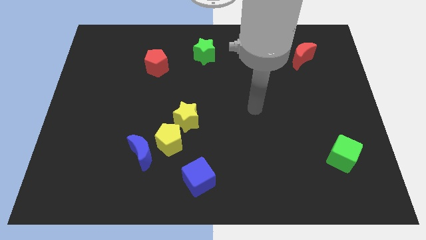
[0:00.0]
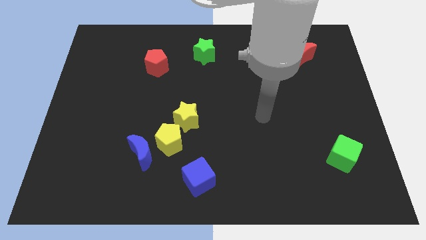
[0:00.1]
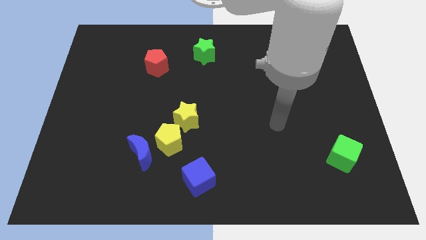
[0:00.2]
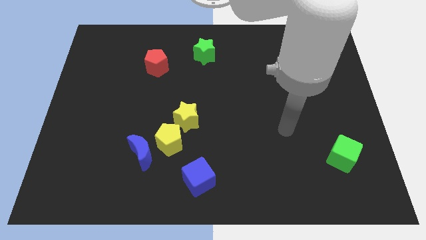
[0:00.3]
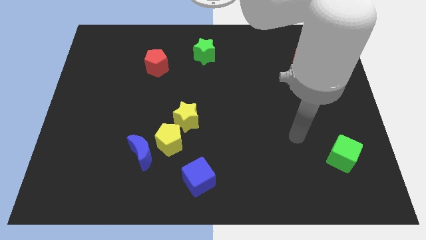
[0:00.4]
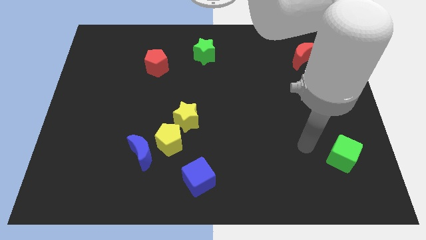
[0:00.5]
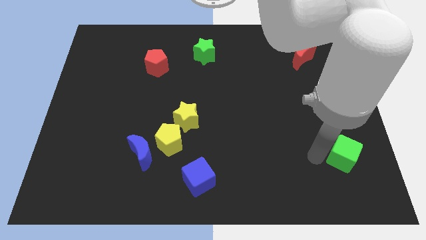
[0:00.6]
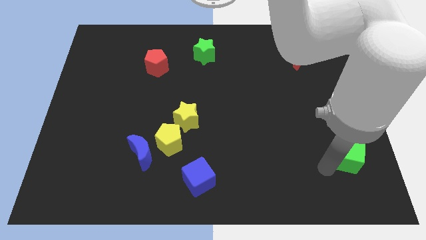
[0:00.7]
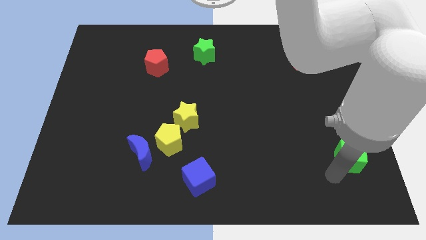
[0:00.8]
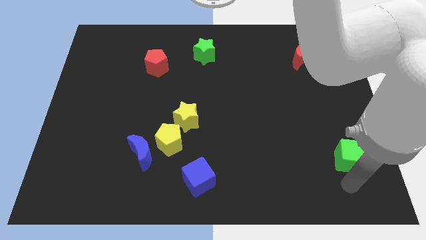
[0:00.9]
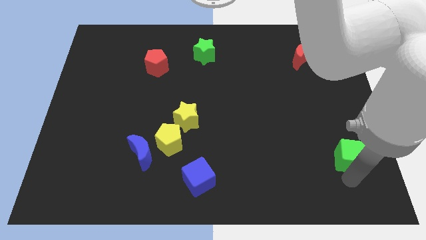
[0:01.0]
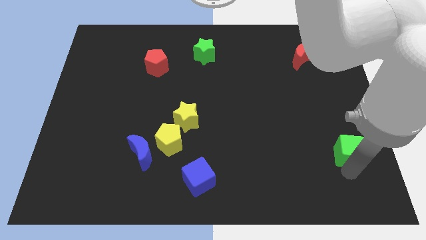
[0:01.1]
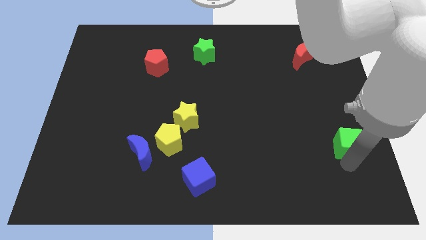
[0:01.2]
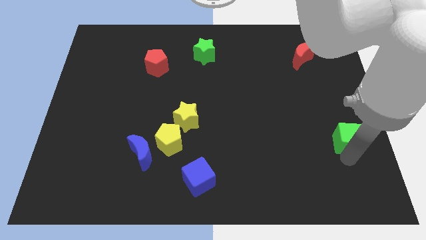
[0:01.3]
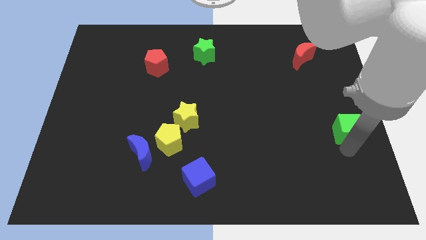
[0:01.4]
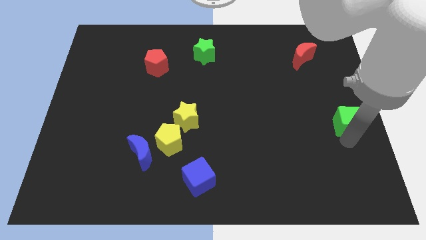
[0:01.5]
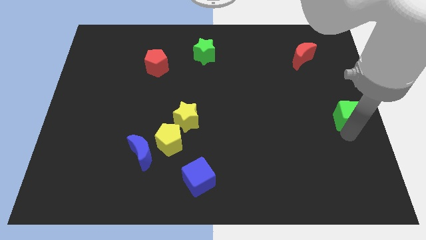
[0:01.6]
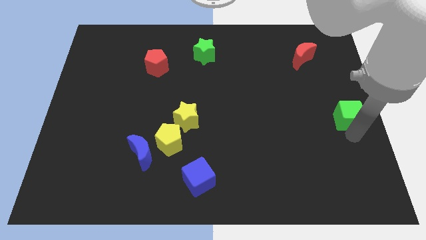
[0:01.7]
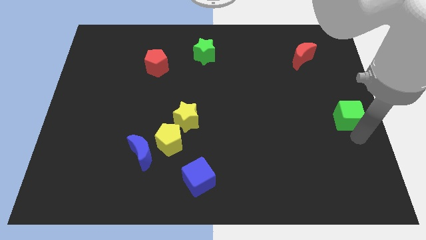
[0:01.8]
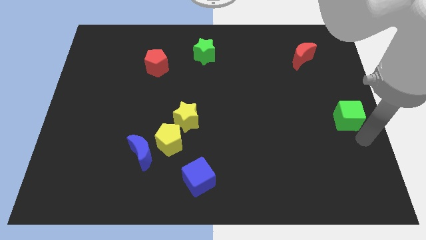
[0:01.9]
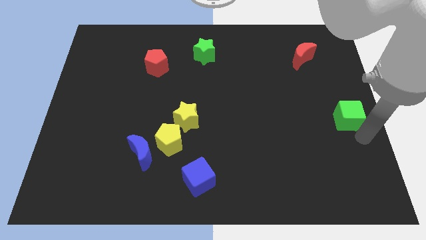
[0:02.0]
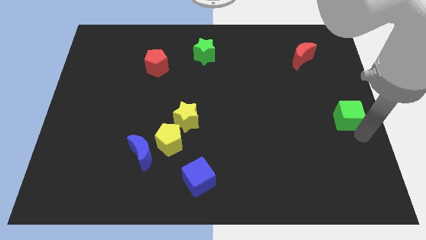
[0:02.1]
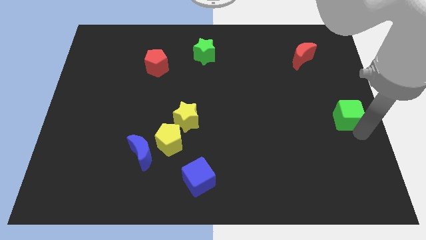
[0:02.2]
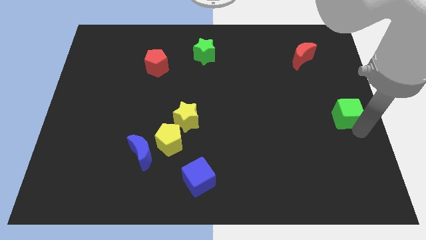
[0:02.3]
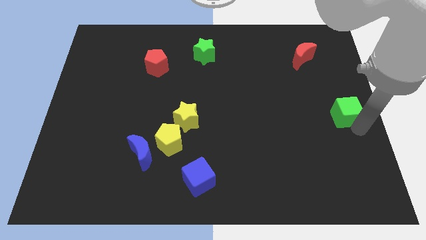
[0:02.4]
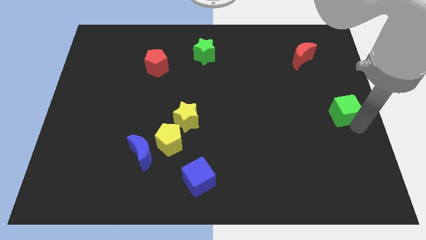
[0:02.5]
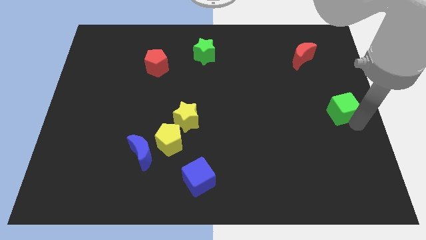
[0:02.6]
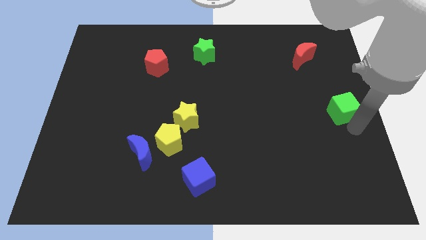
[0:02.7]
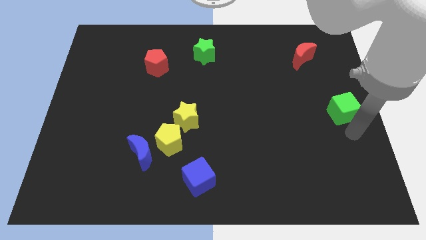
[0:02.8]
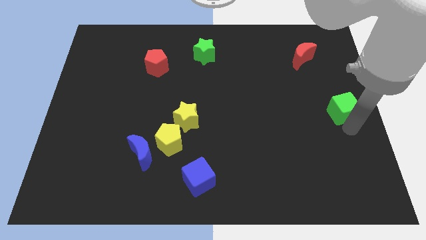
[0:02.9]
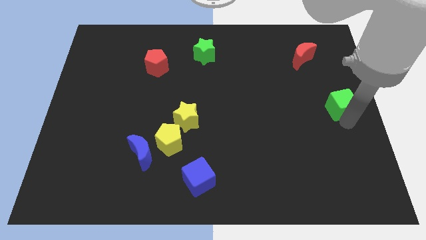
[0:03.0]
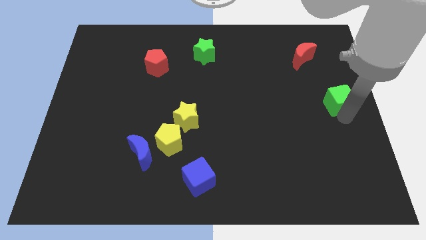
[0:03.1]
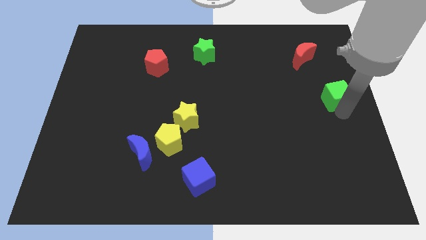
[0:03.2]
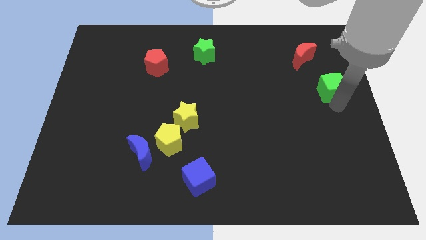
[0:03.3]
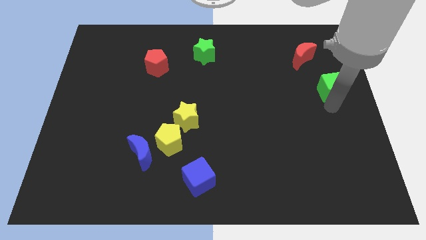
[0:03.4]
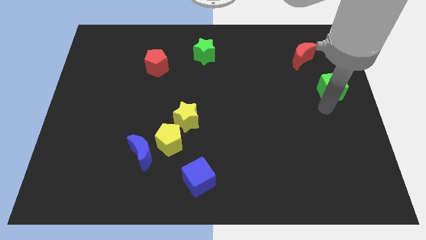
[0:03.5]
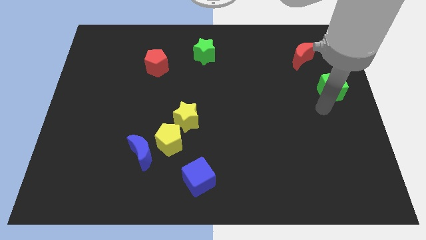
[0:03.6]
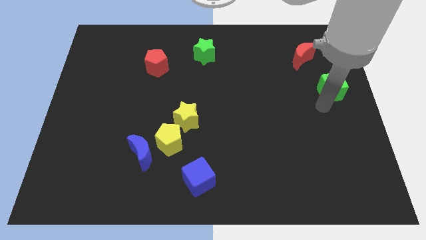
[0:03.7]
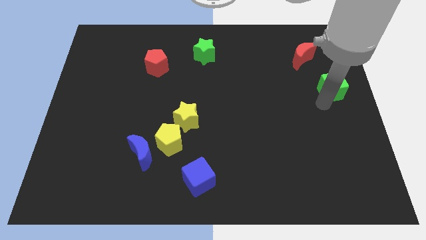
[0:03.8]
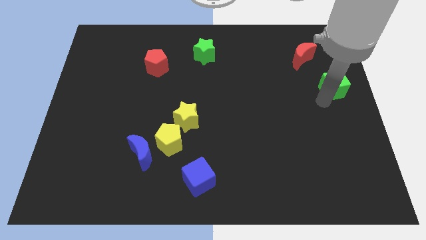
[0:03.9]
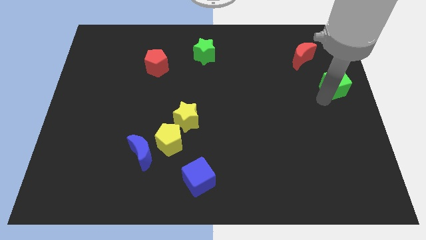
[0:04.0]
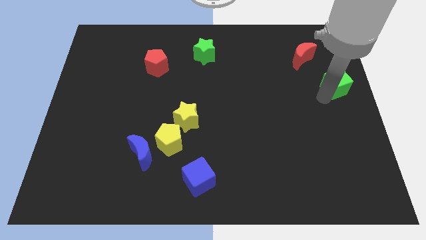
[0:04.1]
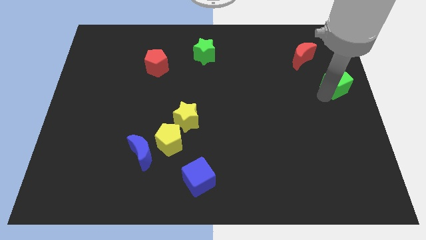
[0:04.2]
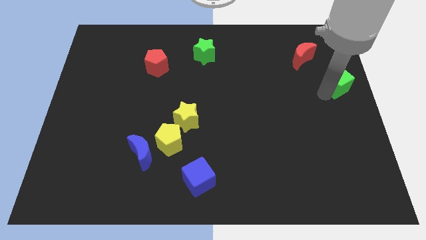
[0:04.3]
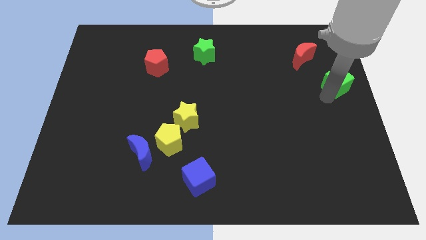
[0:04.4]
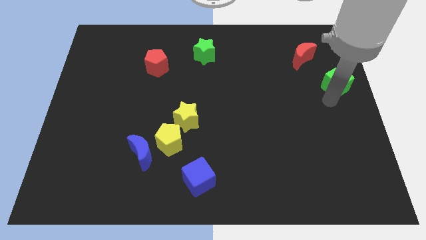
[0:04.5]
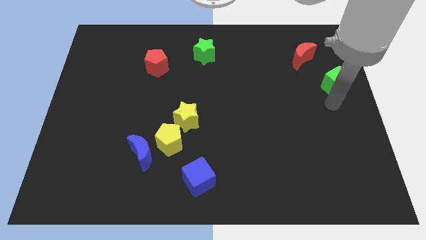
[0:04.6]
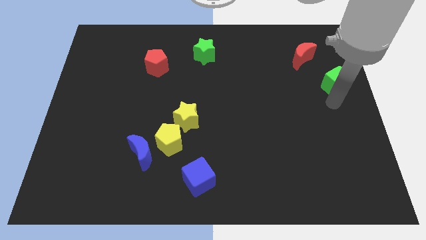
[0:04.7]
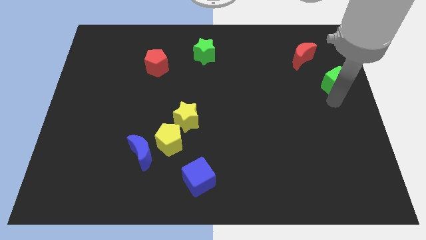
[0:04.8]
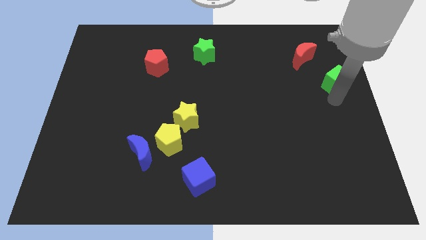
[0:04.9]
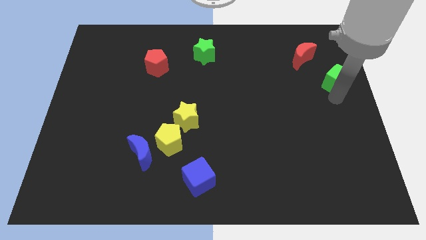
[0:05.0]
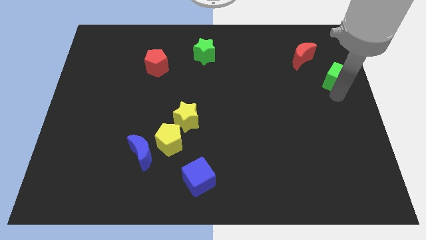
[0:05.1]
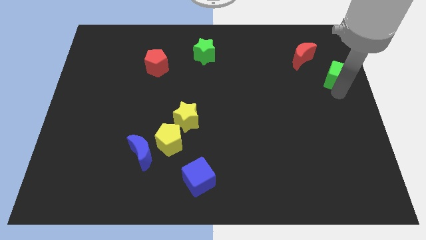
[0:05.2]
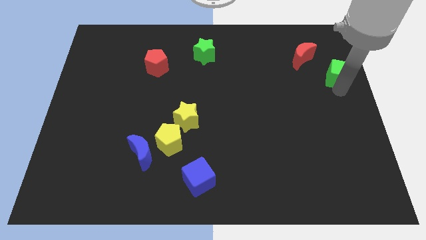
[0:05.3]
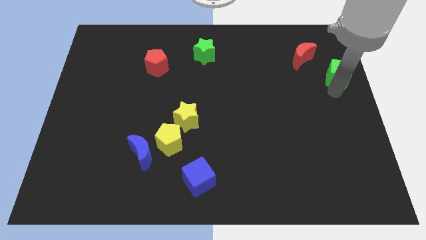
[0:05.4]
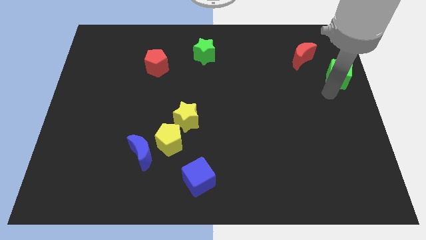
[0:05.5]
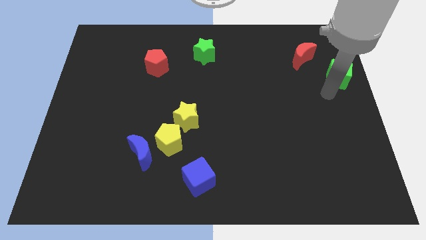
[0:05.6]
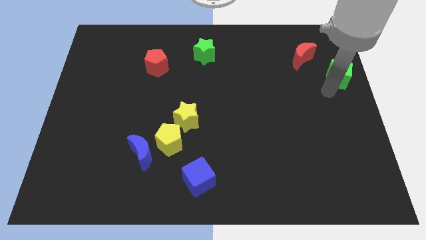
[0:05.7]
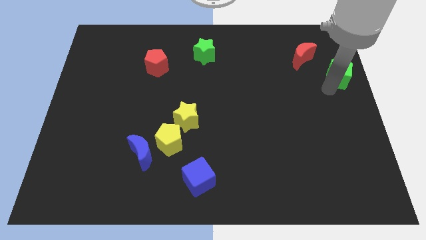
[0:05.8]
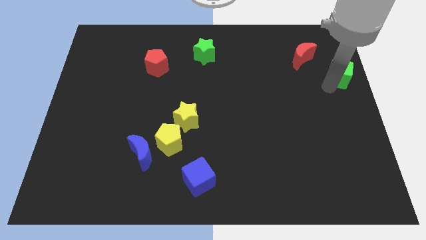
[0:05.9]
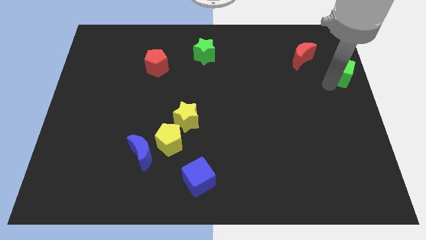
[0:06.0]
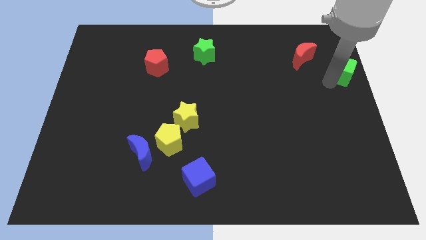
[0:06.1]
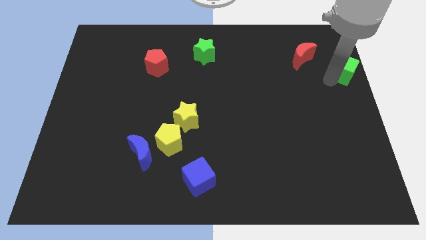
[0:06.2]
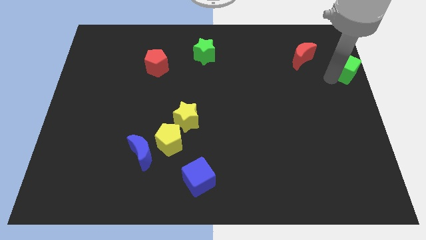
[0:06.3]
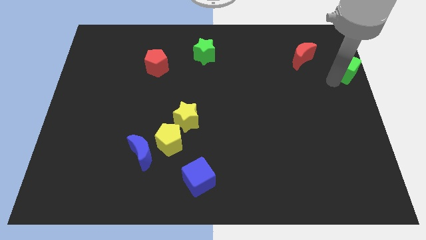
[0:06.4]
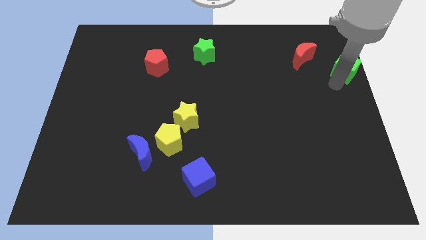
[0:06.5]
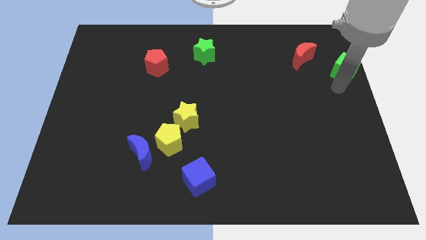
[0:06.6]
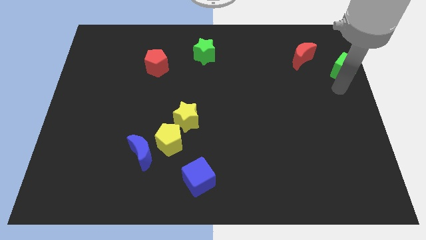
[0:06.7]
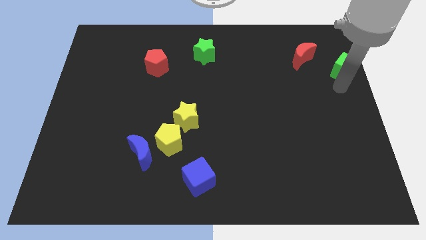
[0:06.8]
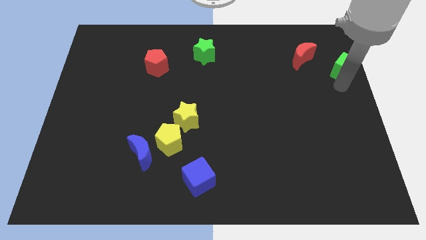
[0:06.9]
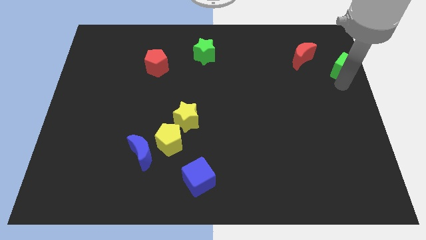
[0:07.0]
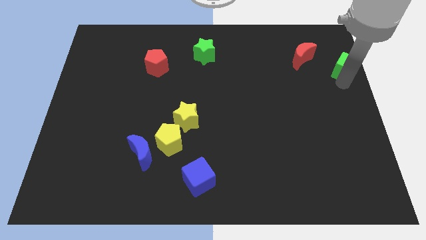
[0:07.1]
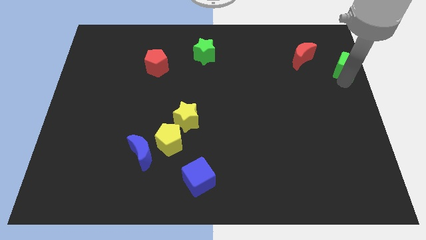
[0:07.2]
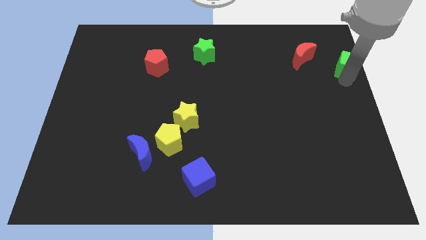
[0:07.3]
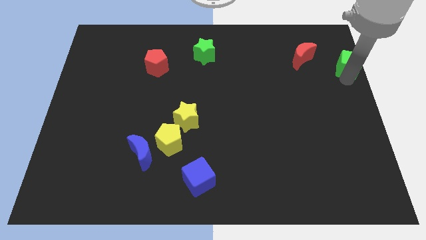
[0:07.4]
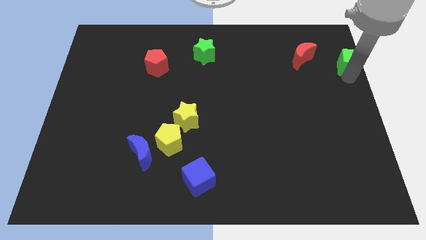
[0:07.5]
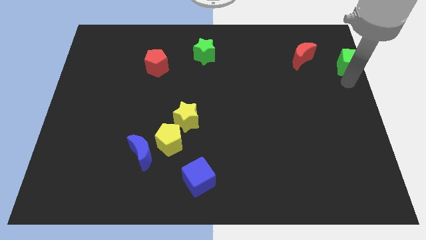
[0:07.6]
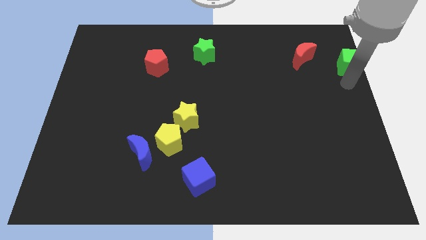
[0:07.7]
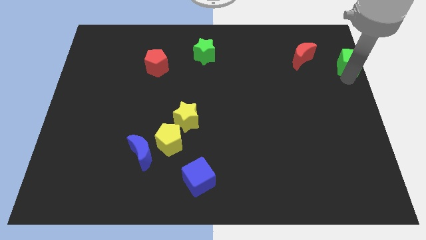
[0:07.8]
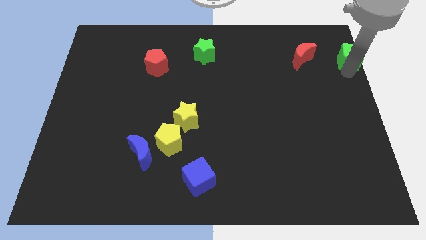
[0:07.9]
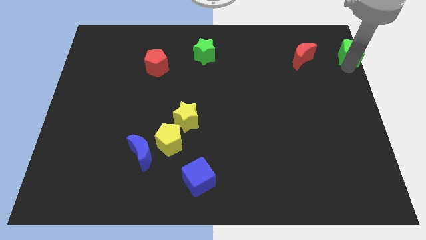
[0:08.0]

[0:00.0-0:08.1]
slide the green cube to the top right corner
